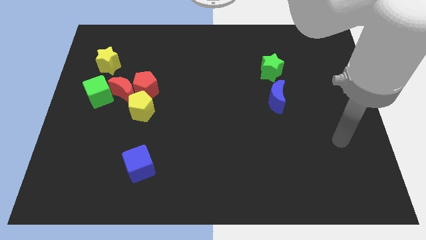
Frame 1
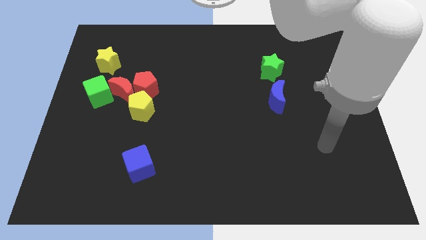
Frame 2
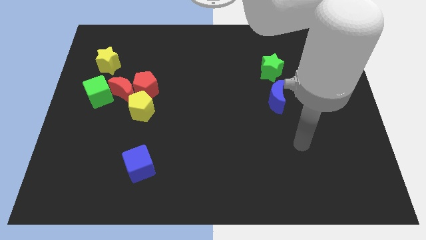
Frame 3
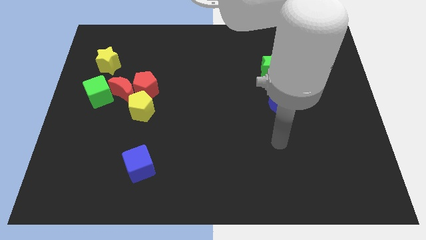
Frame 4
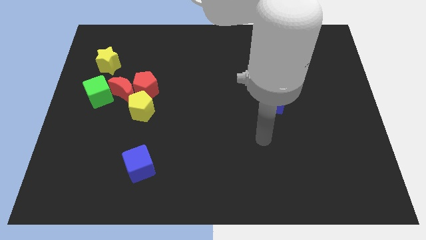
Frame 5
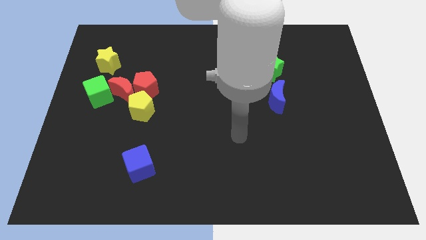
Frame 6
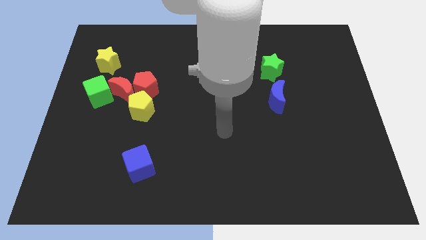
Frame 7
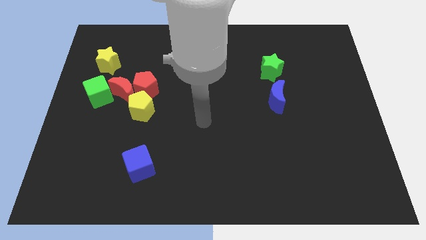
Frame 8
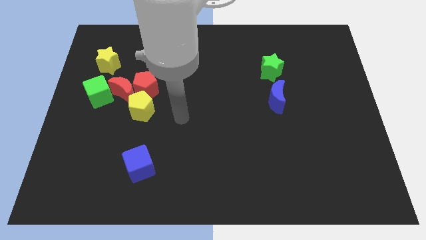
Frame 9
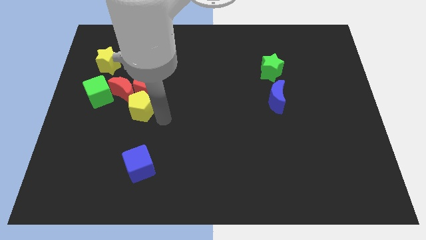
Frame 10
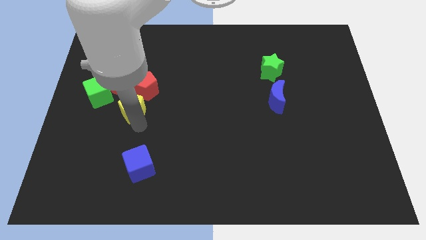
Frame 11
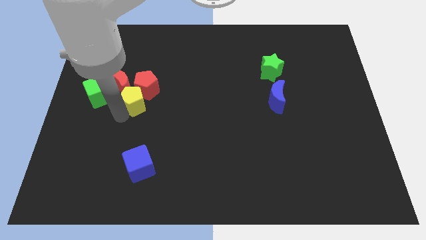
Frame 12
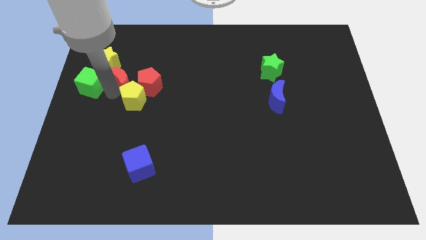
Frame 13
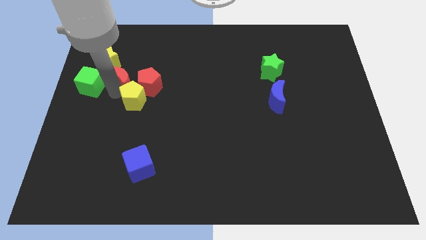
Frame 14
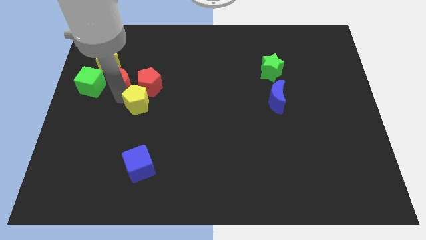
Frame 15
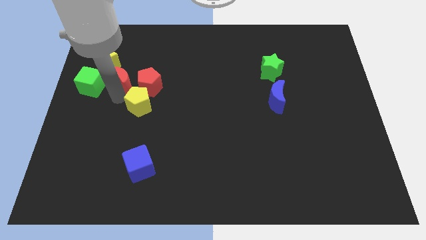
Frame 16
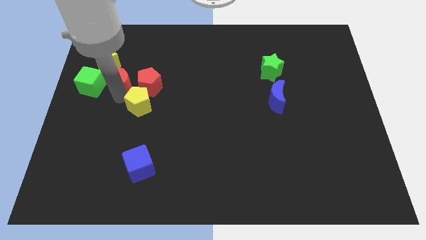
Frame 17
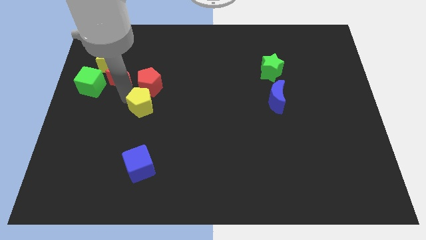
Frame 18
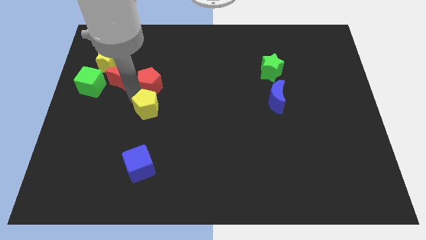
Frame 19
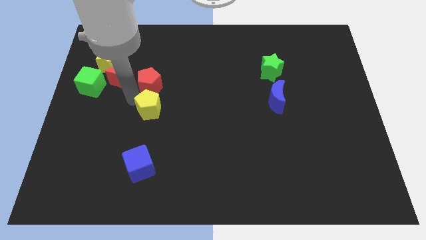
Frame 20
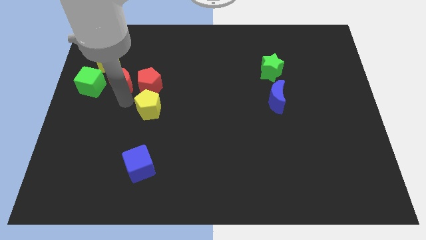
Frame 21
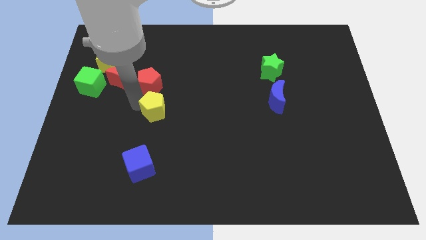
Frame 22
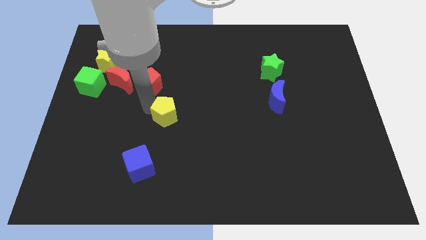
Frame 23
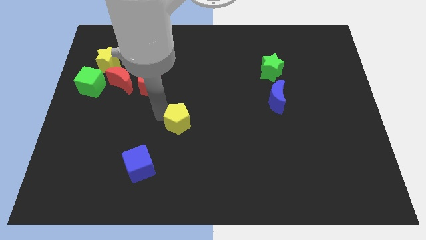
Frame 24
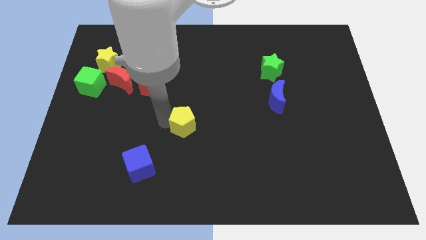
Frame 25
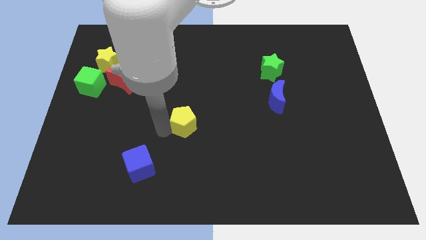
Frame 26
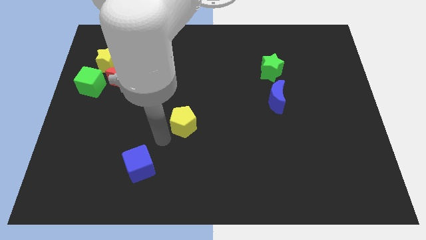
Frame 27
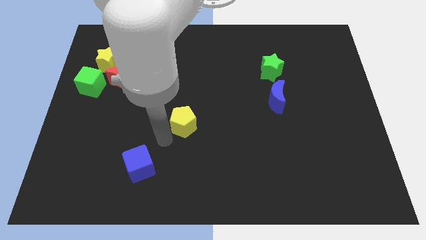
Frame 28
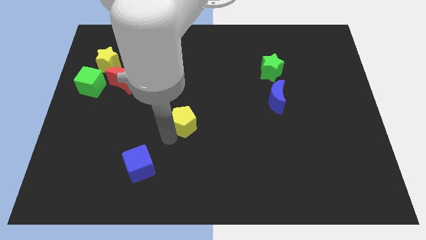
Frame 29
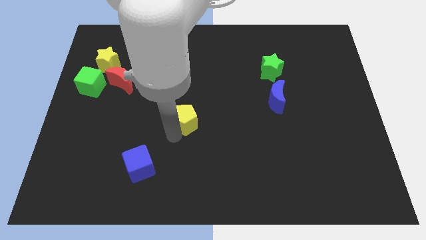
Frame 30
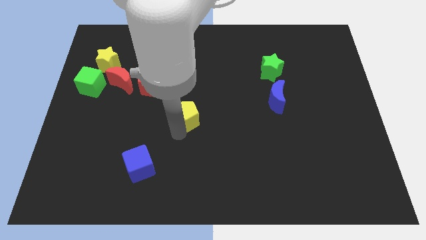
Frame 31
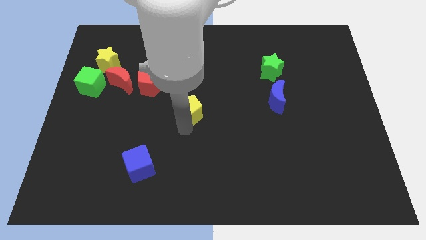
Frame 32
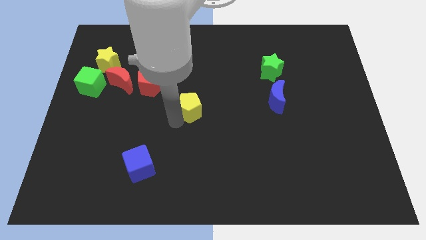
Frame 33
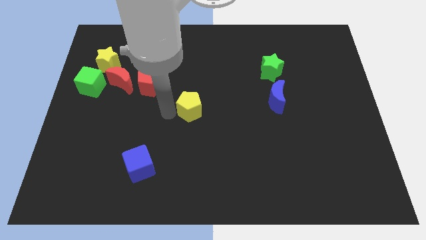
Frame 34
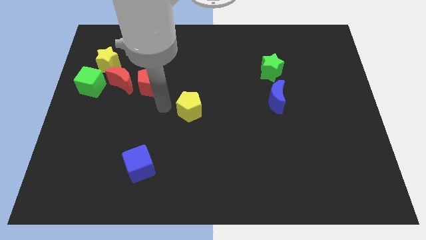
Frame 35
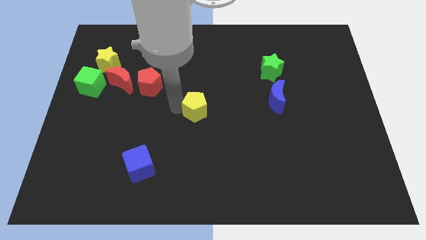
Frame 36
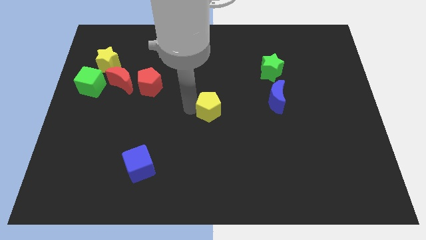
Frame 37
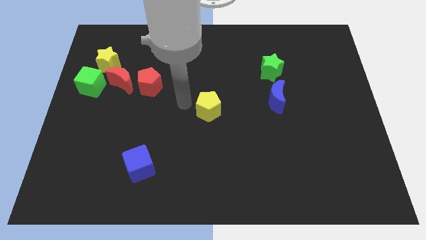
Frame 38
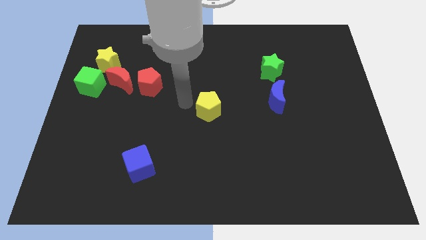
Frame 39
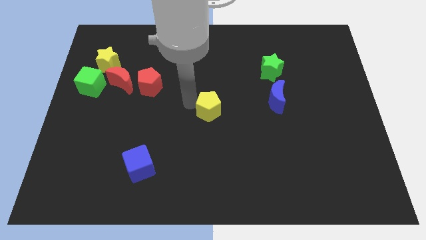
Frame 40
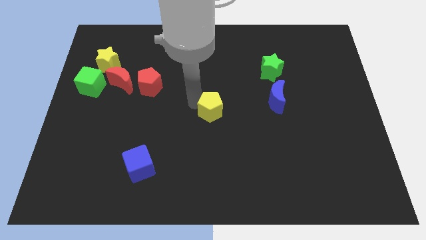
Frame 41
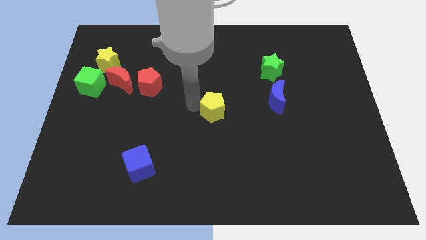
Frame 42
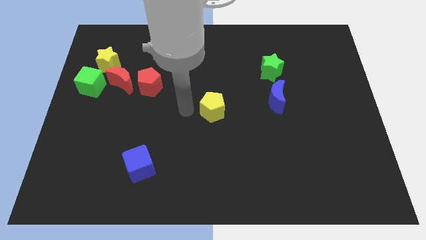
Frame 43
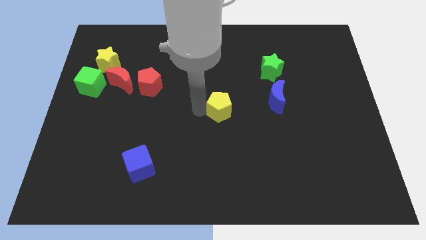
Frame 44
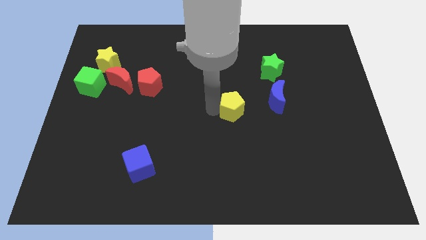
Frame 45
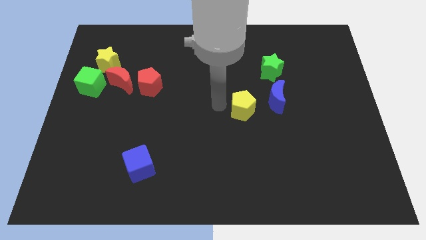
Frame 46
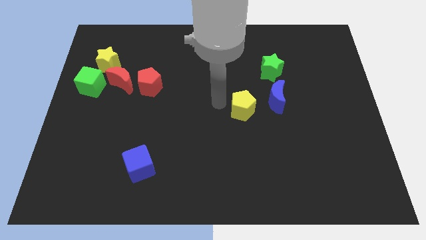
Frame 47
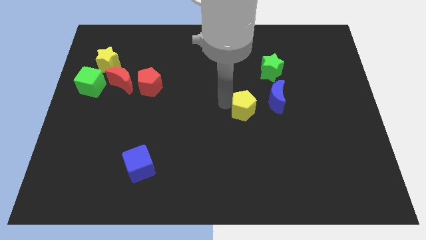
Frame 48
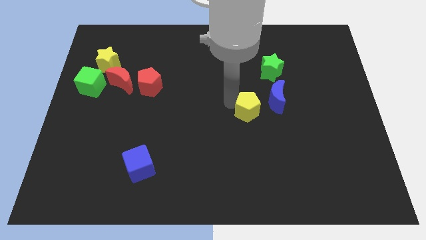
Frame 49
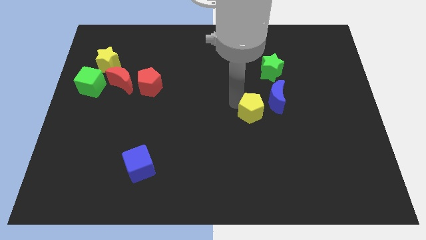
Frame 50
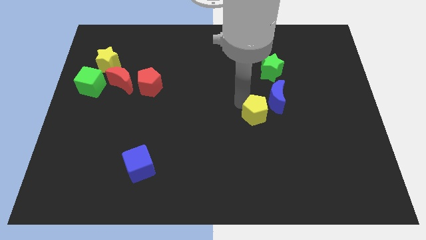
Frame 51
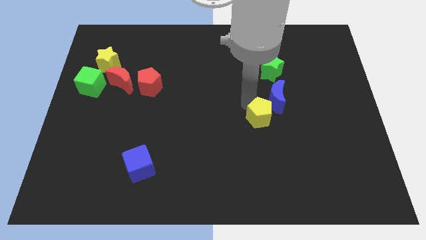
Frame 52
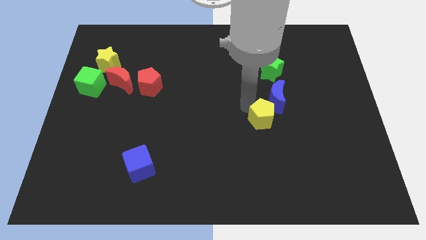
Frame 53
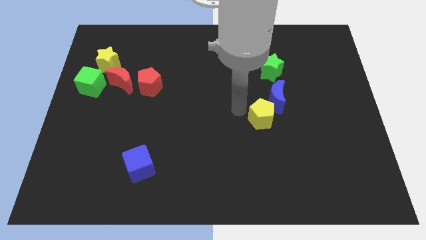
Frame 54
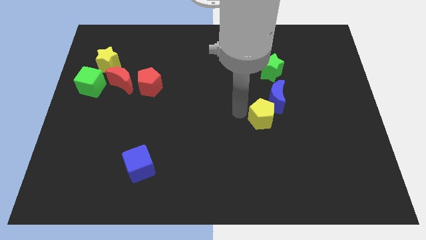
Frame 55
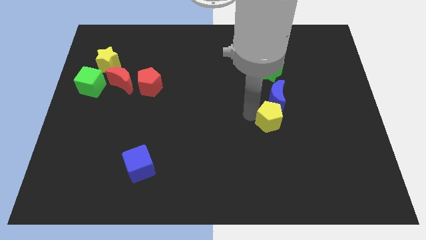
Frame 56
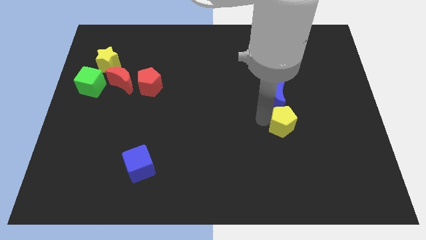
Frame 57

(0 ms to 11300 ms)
put the yellow pentagon to the bottom right side of the blue moon

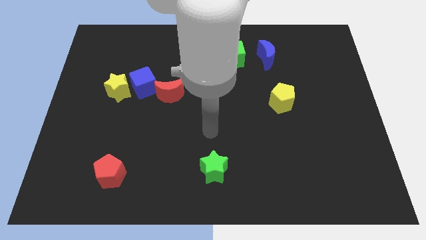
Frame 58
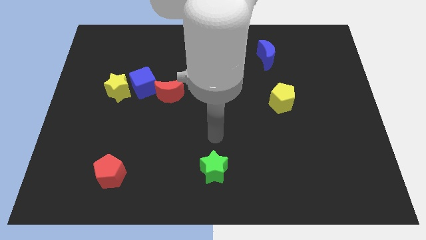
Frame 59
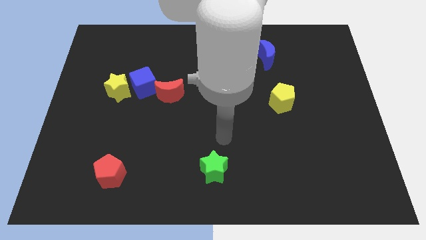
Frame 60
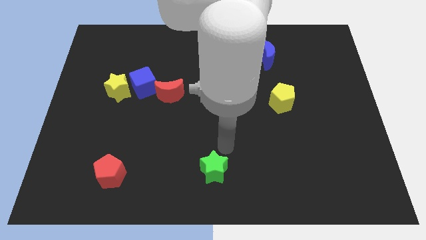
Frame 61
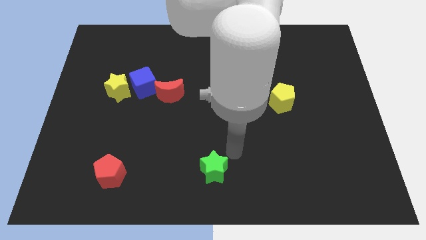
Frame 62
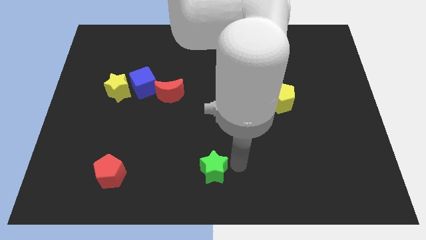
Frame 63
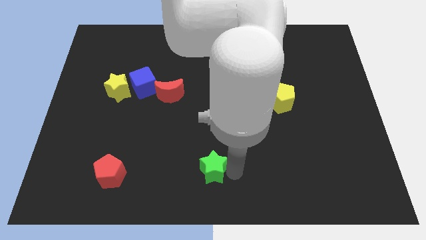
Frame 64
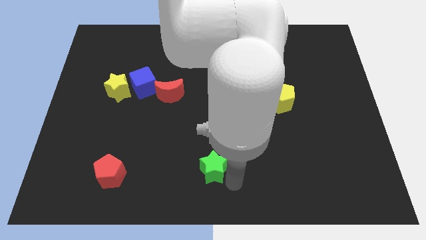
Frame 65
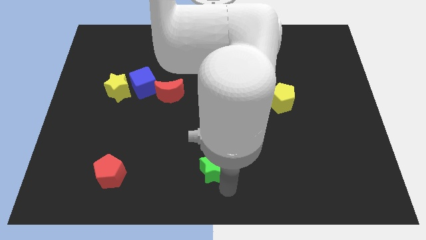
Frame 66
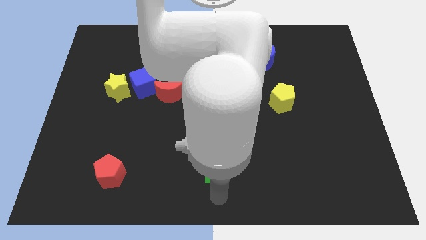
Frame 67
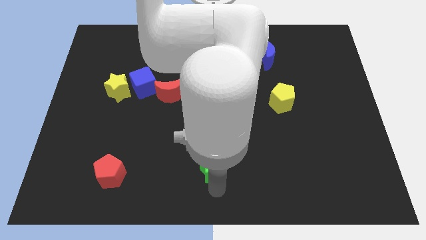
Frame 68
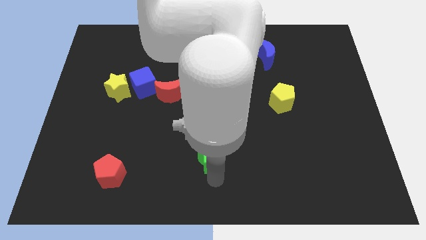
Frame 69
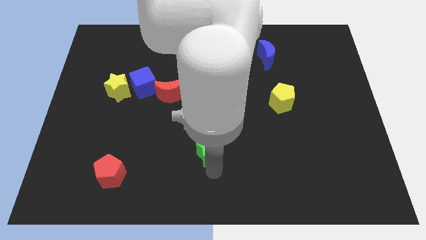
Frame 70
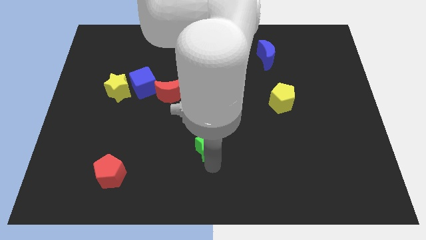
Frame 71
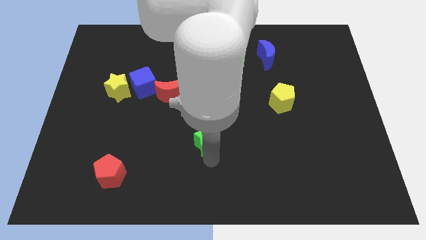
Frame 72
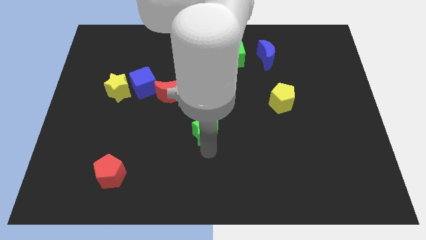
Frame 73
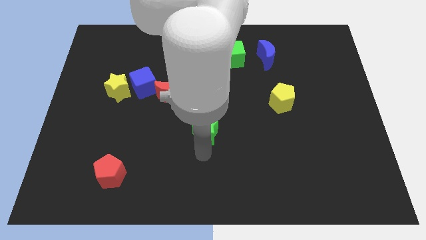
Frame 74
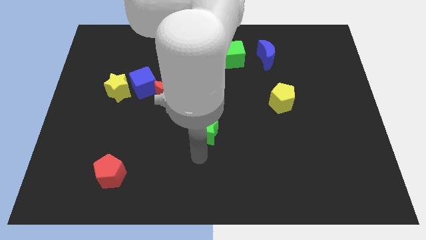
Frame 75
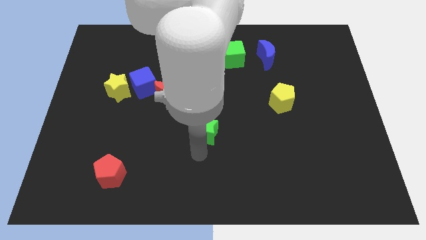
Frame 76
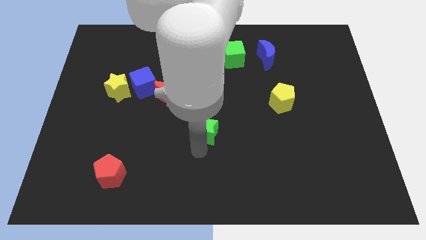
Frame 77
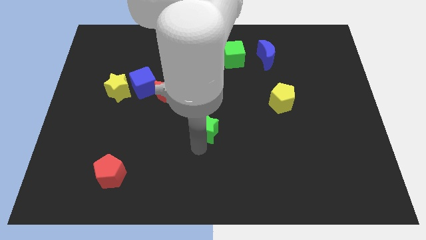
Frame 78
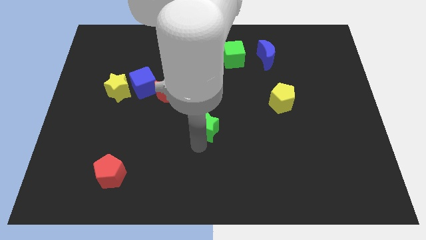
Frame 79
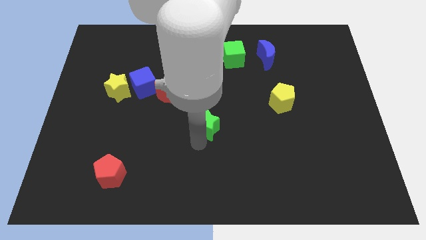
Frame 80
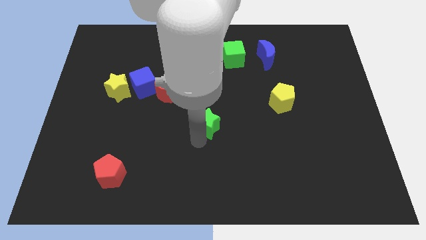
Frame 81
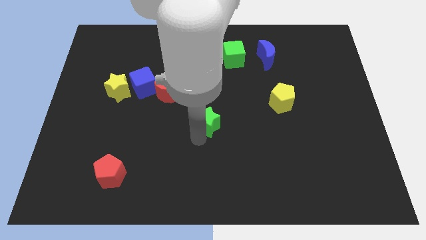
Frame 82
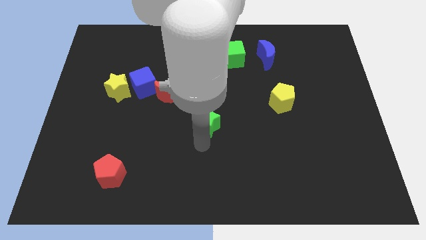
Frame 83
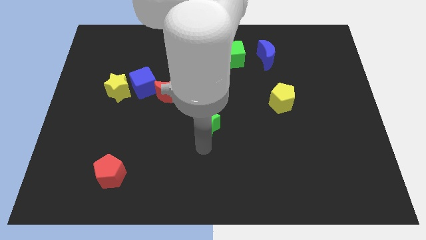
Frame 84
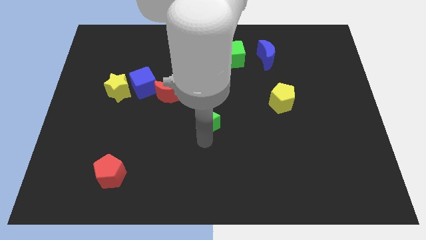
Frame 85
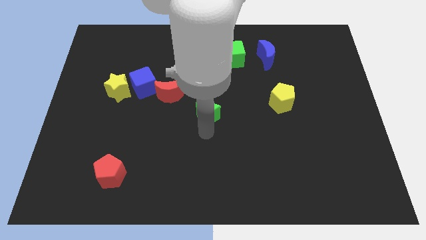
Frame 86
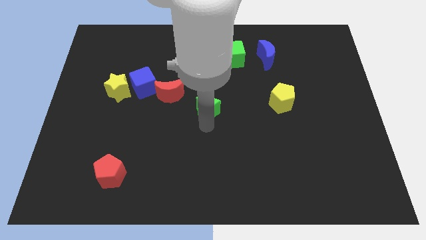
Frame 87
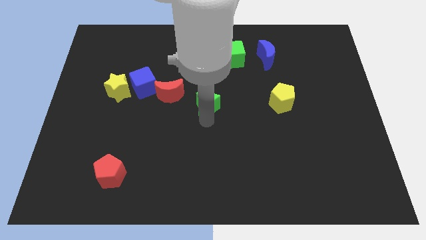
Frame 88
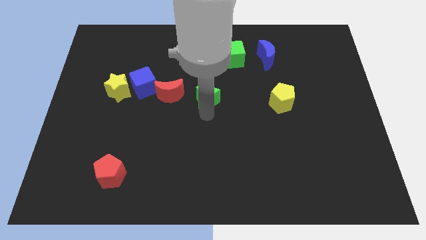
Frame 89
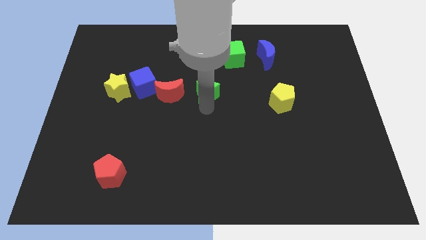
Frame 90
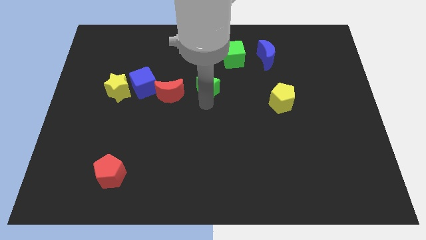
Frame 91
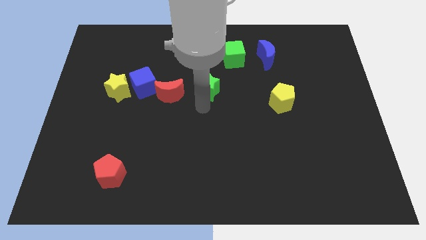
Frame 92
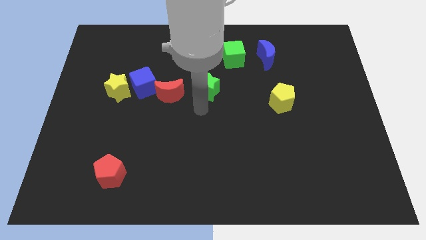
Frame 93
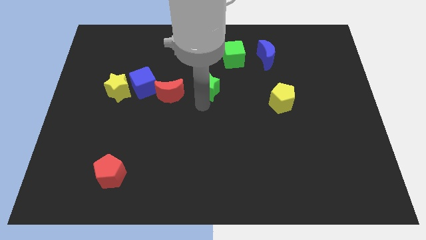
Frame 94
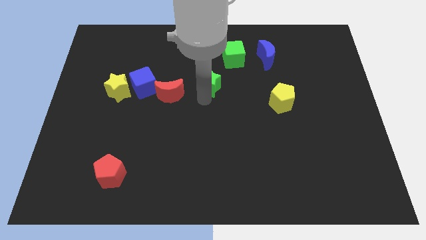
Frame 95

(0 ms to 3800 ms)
slide the green star to the bottom left of the green cube
